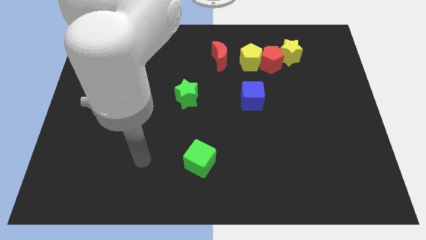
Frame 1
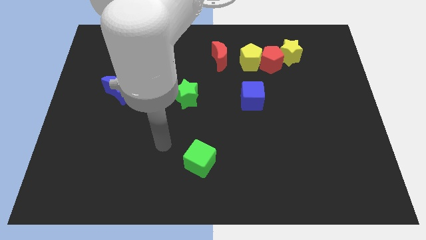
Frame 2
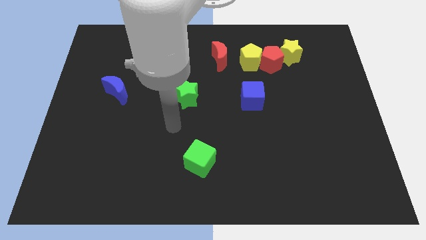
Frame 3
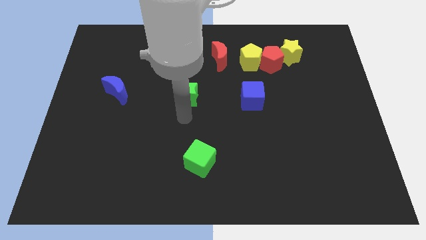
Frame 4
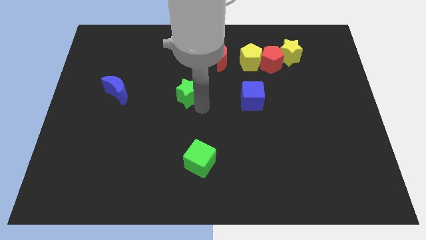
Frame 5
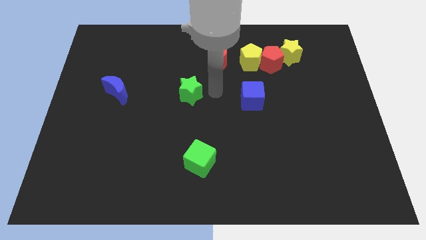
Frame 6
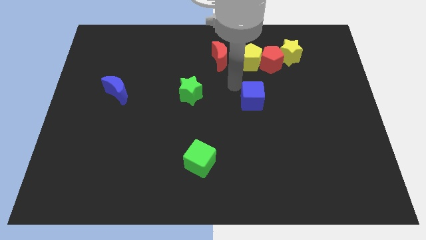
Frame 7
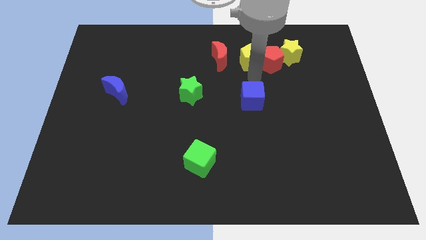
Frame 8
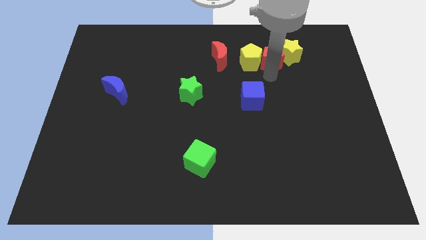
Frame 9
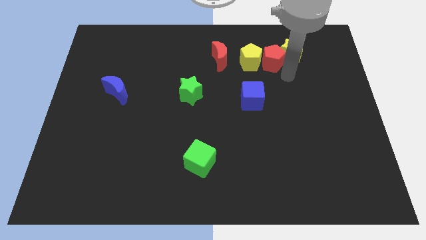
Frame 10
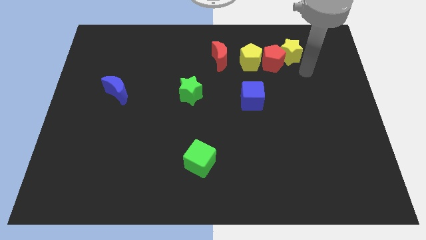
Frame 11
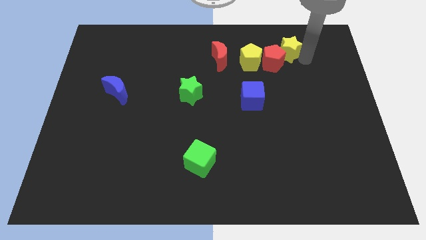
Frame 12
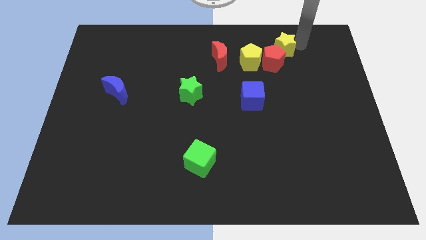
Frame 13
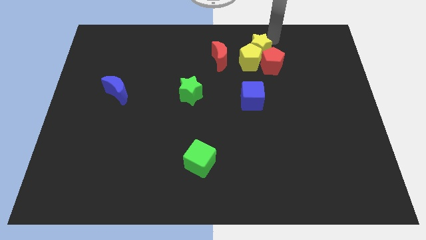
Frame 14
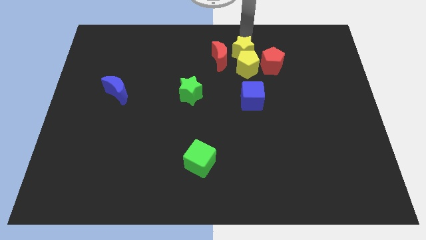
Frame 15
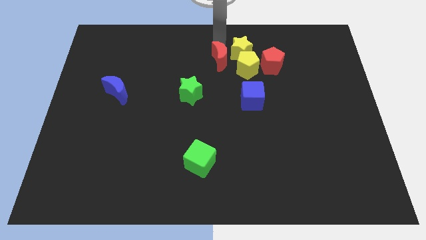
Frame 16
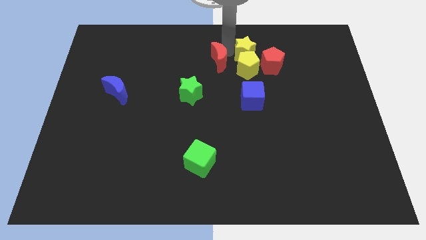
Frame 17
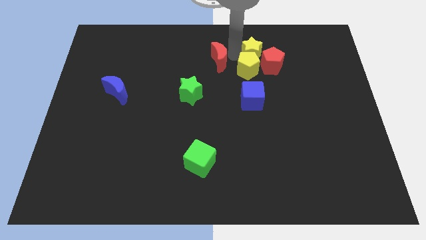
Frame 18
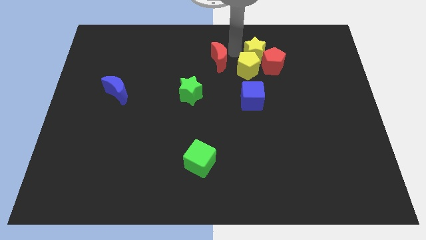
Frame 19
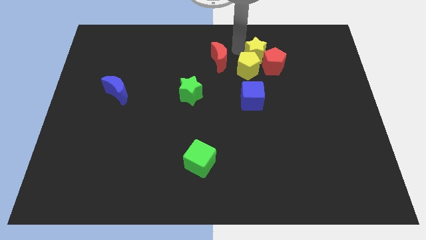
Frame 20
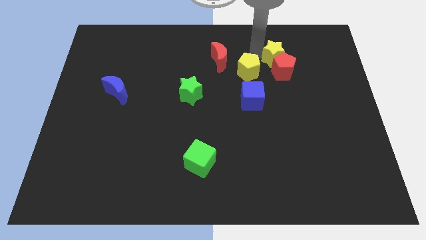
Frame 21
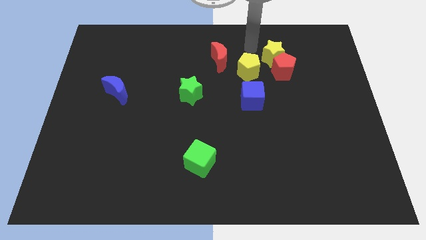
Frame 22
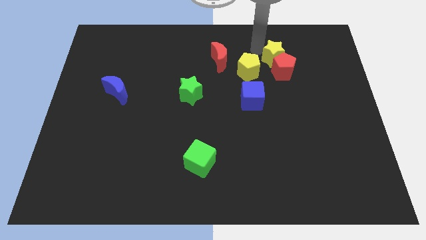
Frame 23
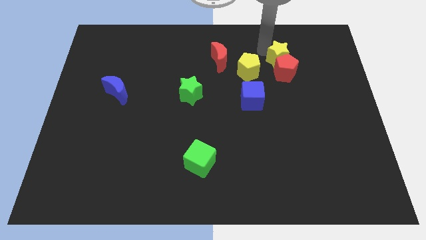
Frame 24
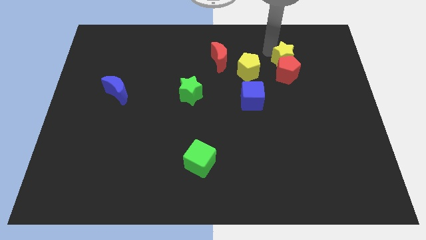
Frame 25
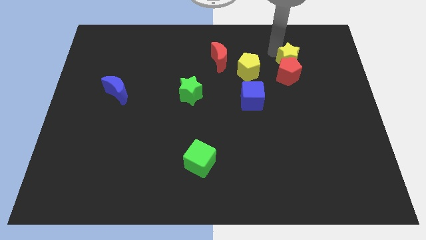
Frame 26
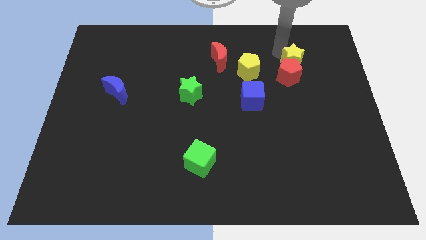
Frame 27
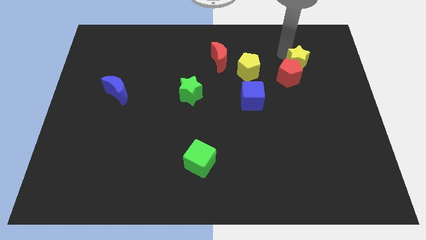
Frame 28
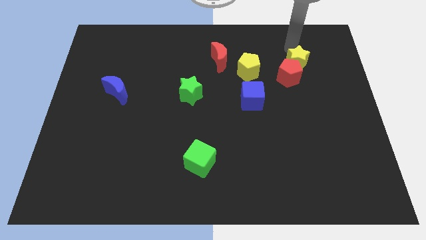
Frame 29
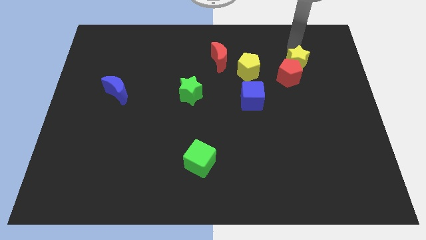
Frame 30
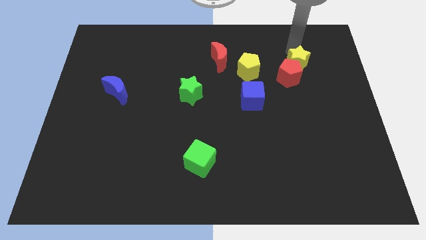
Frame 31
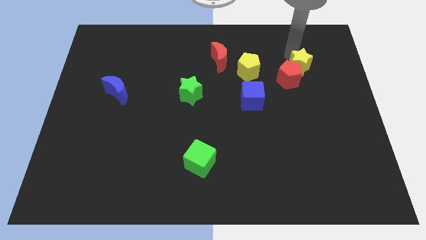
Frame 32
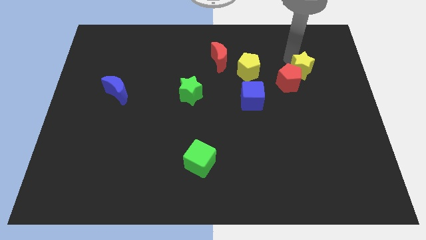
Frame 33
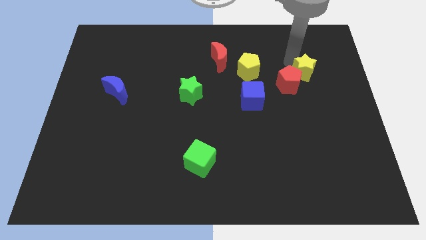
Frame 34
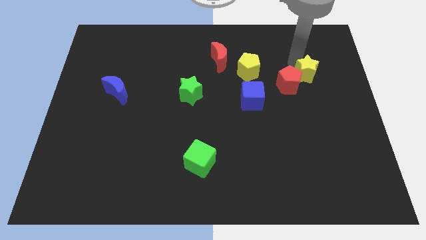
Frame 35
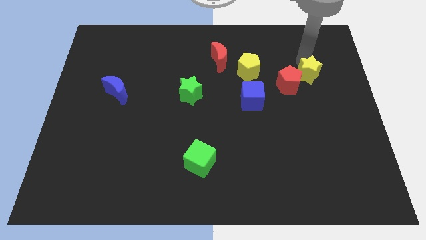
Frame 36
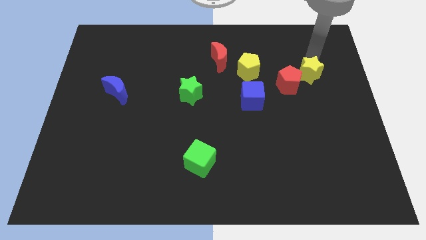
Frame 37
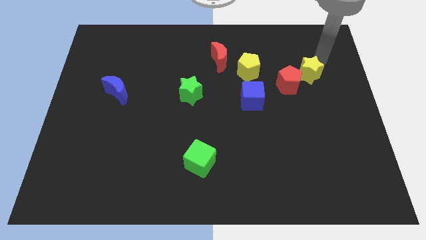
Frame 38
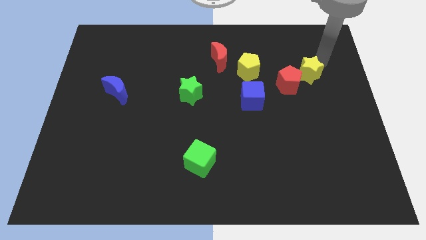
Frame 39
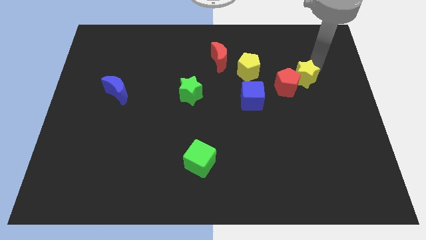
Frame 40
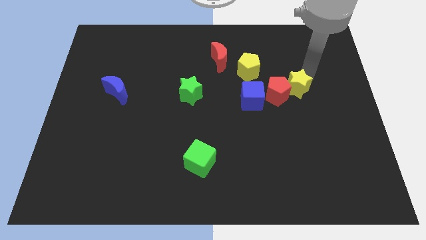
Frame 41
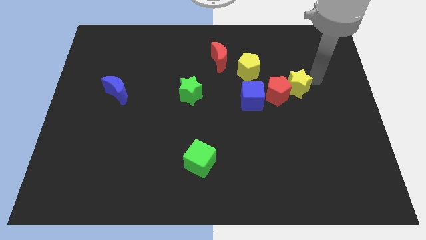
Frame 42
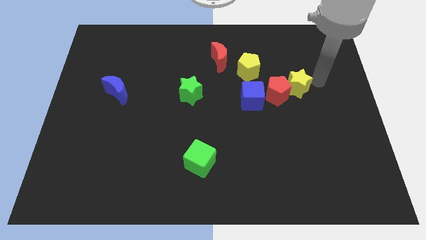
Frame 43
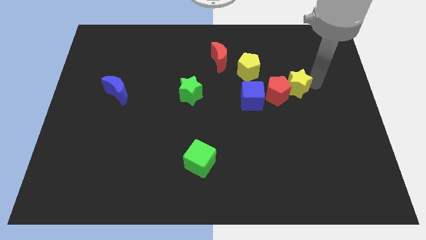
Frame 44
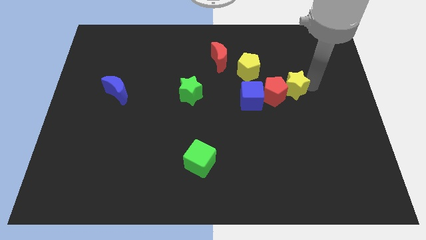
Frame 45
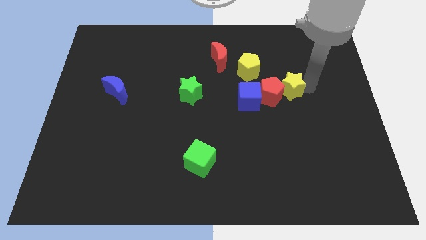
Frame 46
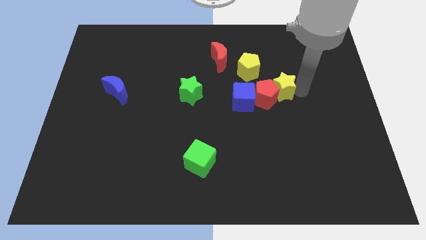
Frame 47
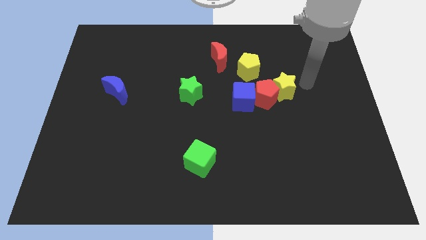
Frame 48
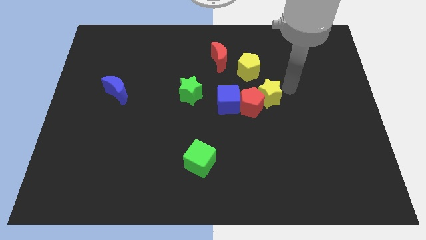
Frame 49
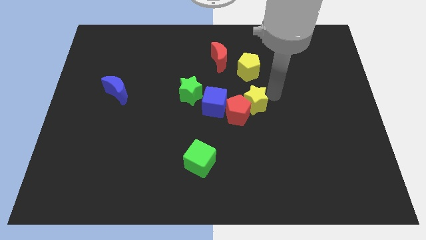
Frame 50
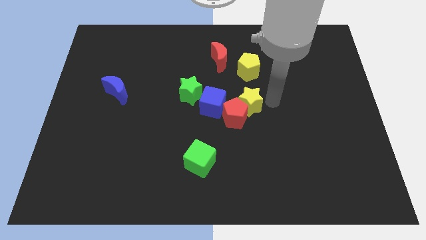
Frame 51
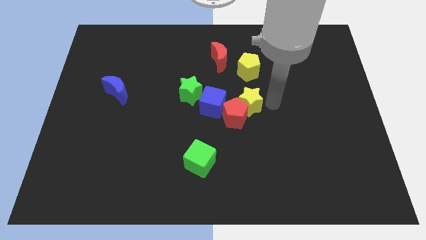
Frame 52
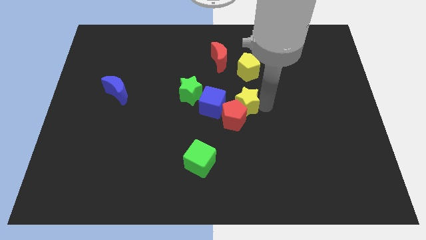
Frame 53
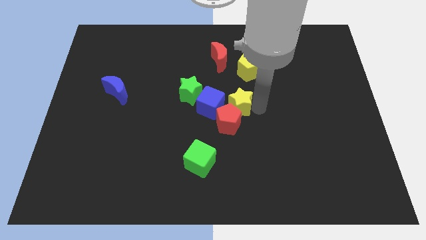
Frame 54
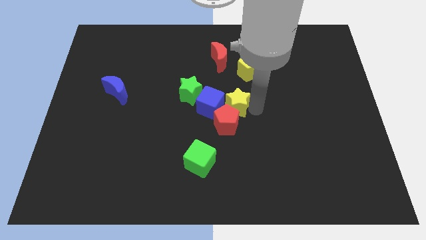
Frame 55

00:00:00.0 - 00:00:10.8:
push the yellow star towards the blue cube

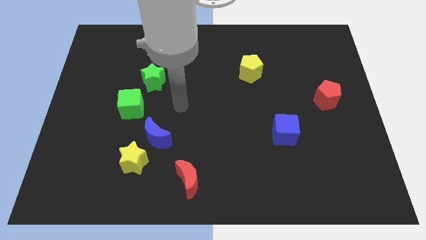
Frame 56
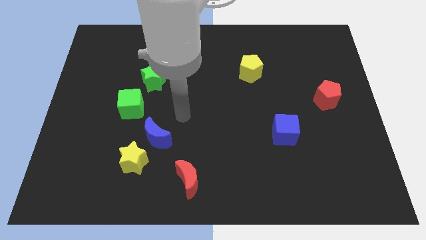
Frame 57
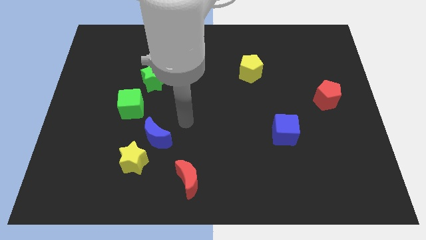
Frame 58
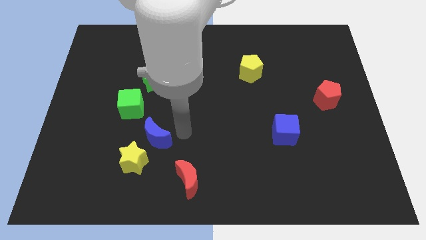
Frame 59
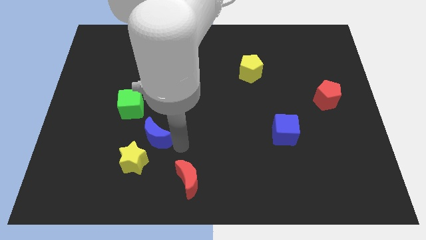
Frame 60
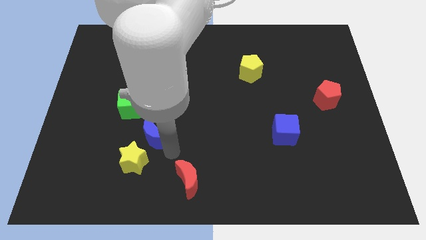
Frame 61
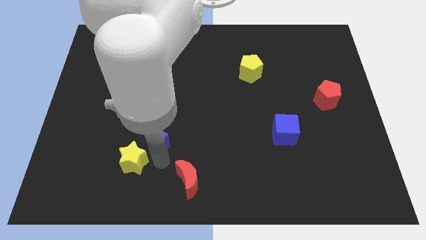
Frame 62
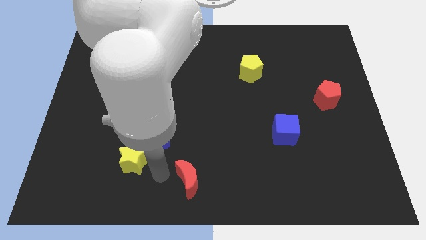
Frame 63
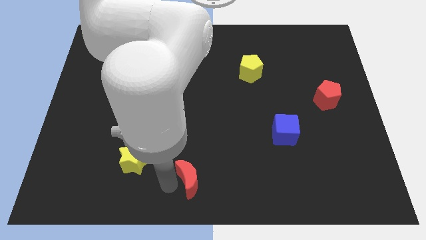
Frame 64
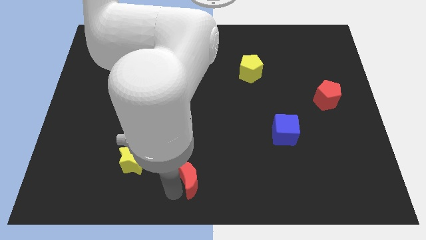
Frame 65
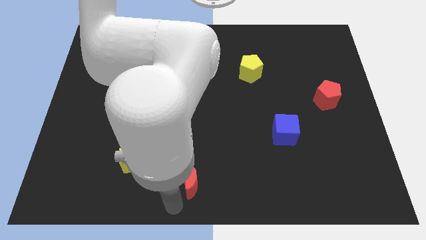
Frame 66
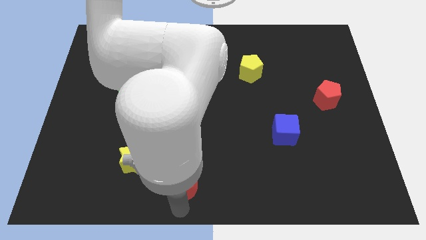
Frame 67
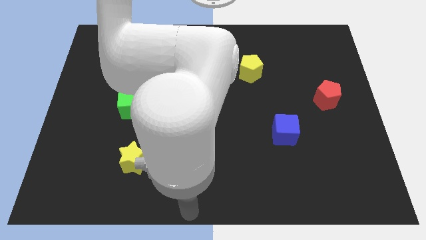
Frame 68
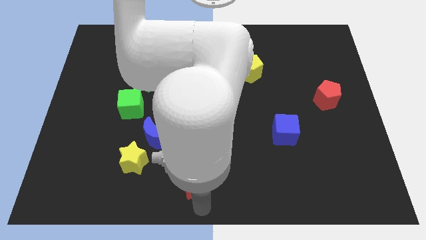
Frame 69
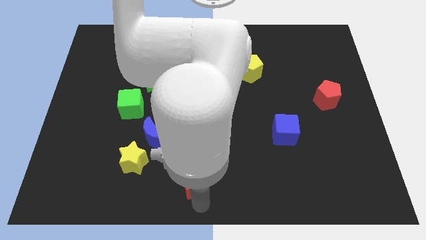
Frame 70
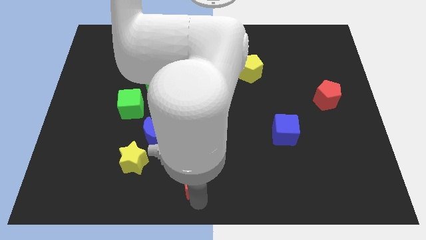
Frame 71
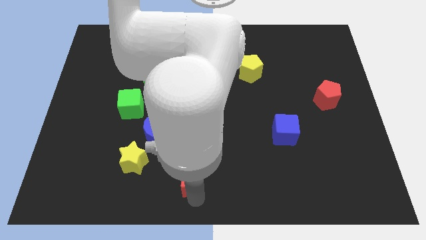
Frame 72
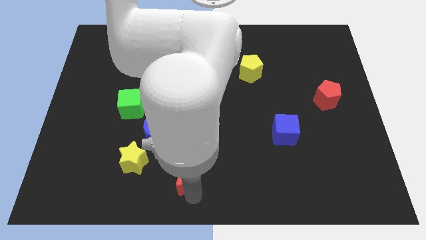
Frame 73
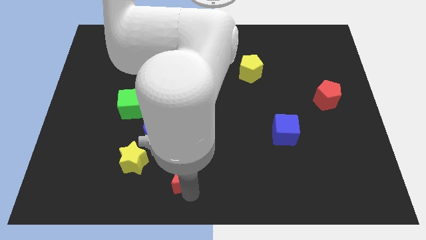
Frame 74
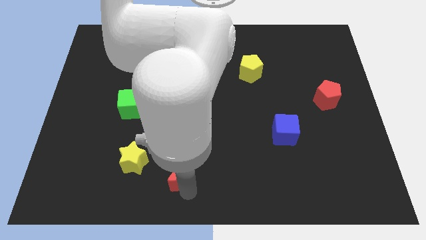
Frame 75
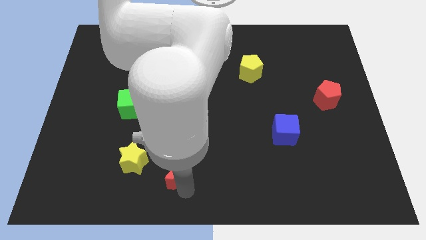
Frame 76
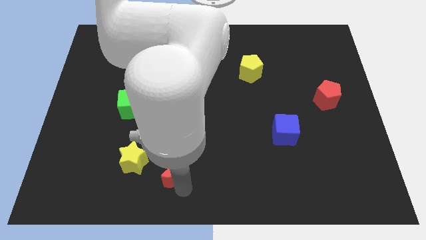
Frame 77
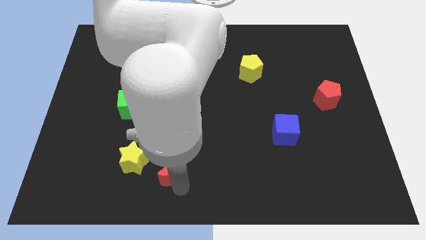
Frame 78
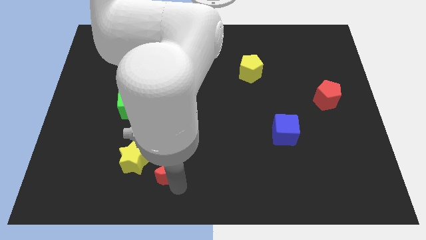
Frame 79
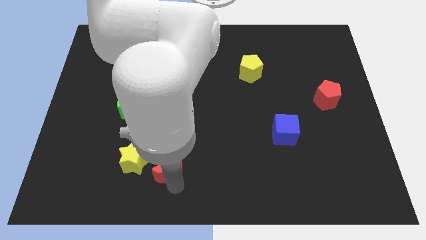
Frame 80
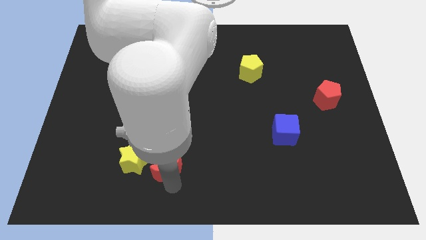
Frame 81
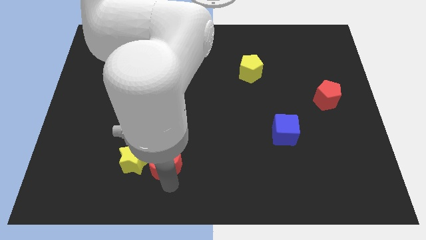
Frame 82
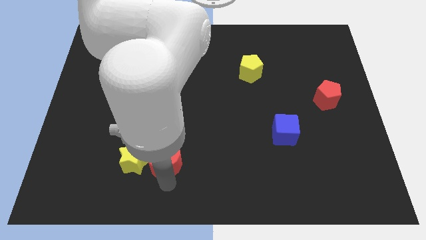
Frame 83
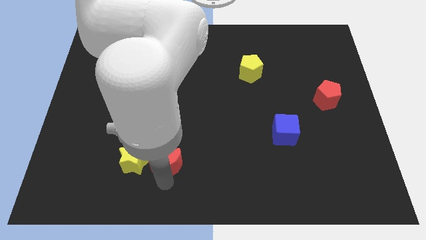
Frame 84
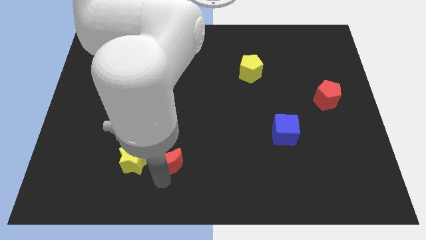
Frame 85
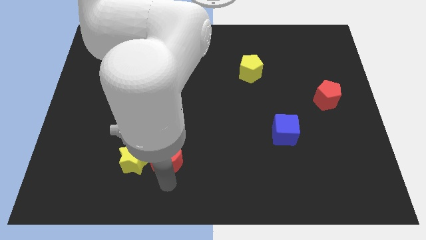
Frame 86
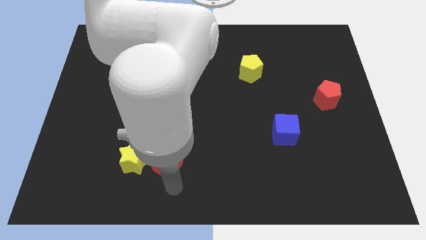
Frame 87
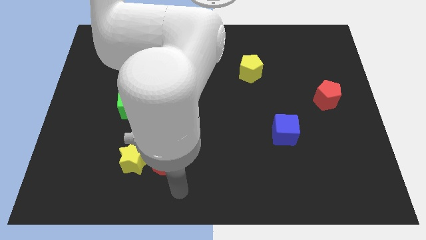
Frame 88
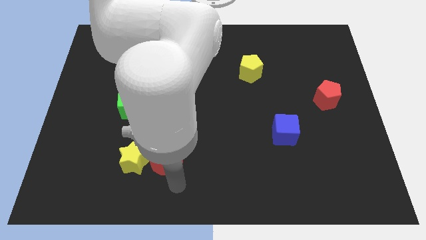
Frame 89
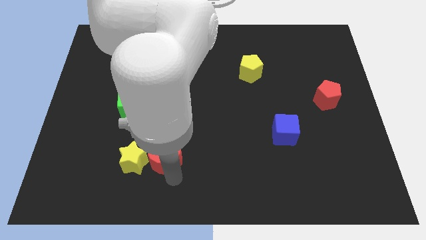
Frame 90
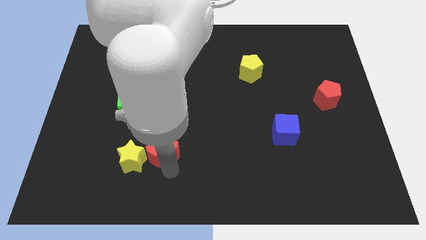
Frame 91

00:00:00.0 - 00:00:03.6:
slide the red moon close to the blue moon
